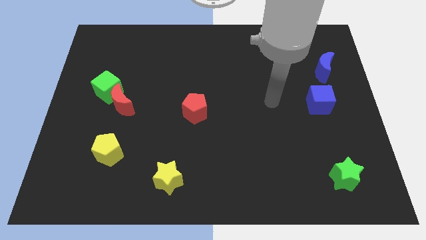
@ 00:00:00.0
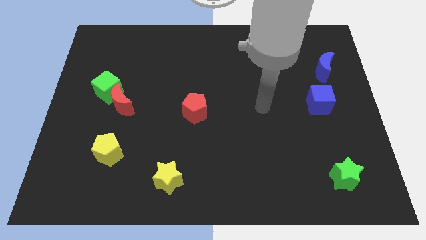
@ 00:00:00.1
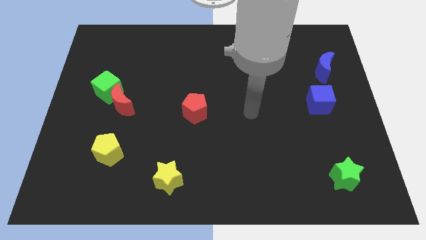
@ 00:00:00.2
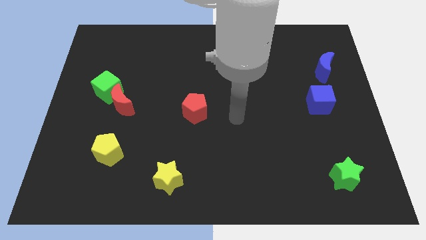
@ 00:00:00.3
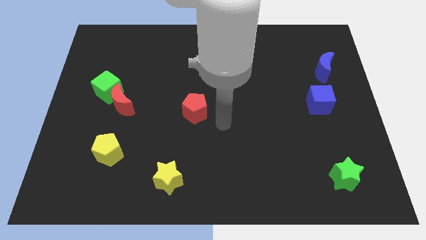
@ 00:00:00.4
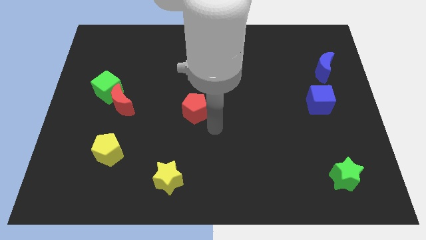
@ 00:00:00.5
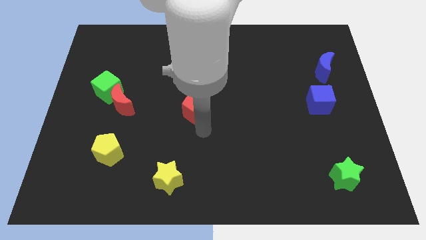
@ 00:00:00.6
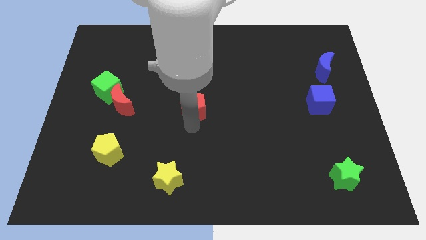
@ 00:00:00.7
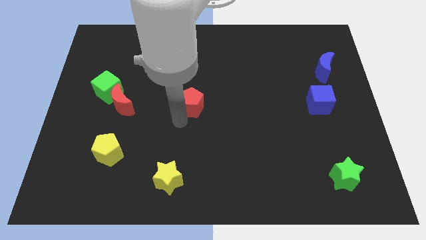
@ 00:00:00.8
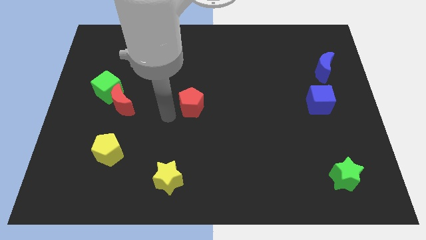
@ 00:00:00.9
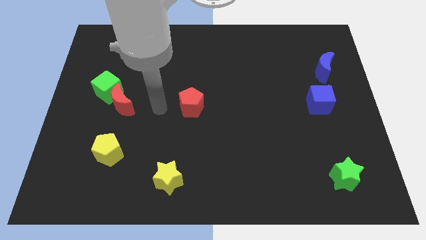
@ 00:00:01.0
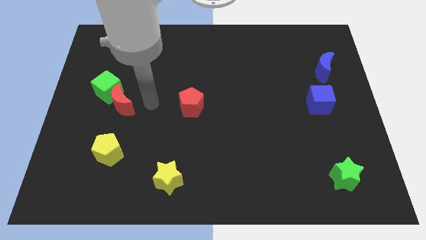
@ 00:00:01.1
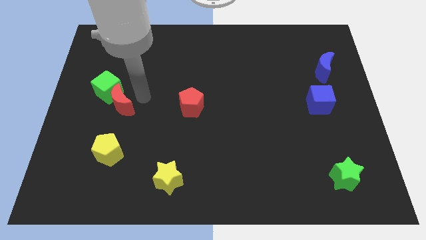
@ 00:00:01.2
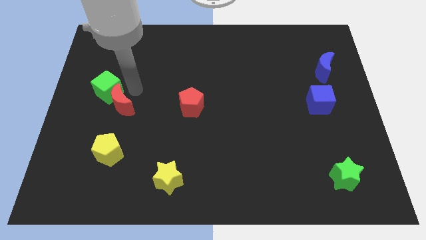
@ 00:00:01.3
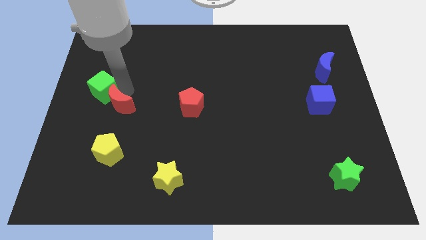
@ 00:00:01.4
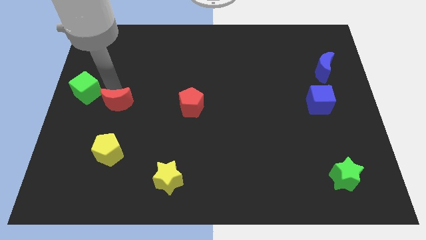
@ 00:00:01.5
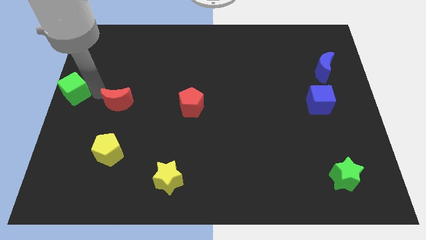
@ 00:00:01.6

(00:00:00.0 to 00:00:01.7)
pull the red moon apart from the green cube

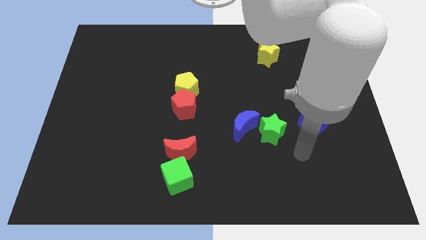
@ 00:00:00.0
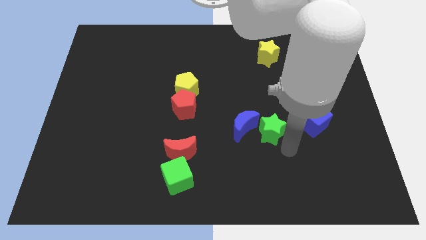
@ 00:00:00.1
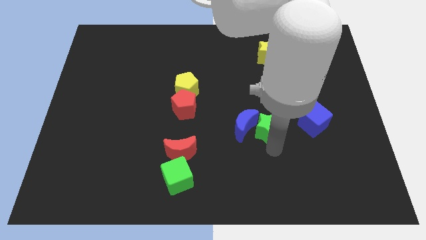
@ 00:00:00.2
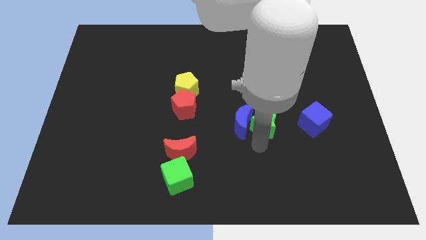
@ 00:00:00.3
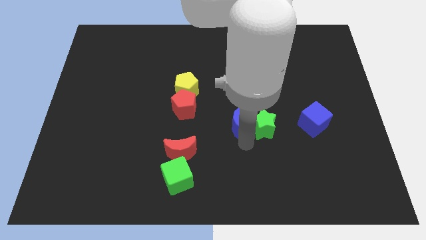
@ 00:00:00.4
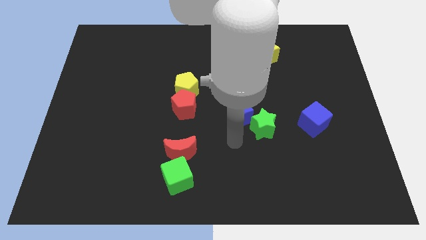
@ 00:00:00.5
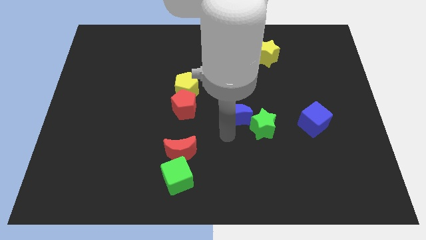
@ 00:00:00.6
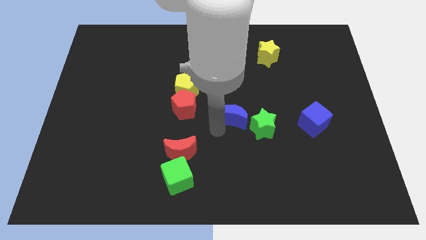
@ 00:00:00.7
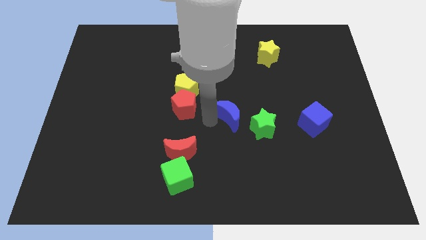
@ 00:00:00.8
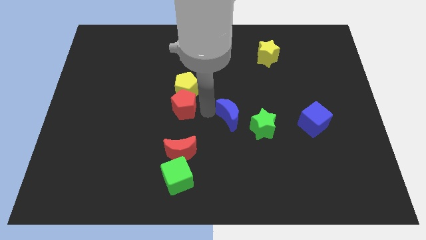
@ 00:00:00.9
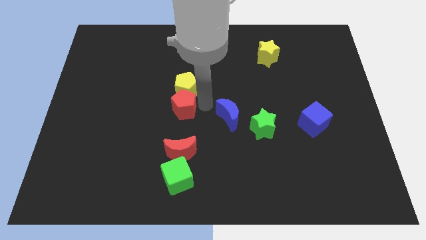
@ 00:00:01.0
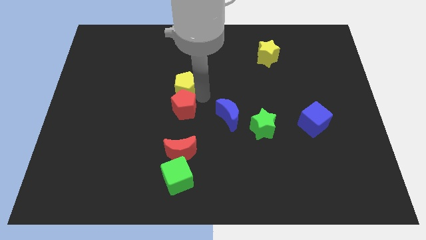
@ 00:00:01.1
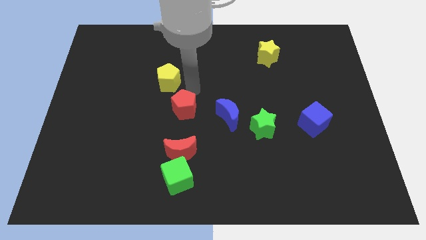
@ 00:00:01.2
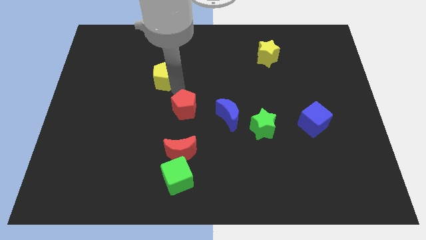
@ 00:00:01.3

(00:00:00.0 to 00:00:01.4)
separate the red pentagon from the yellow pentagon

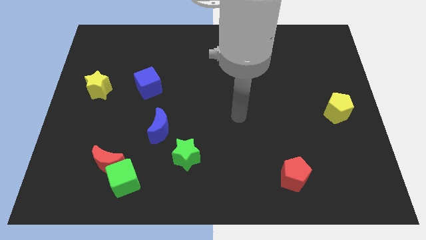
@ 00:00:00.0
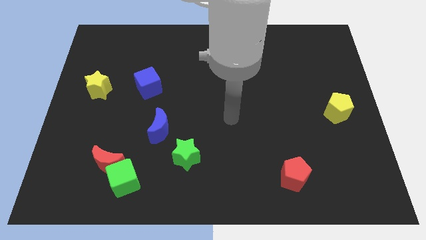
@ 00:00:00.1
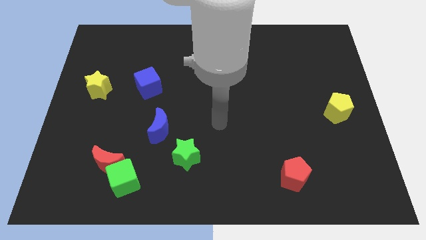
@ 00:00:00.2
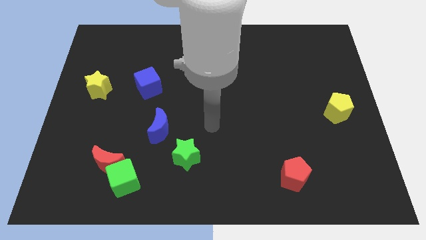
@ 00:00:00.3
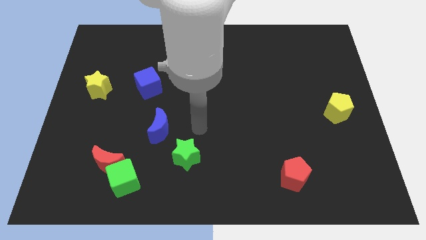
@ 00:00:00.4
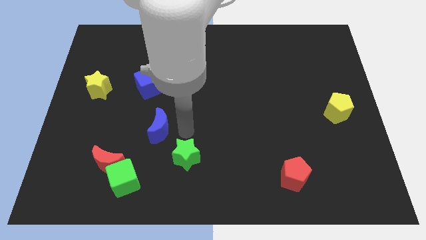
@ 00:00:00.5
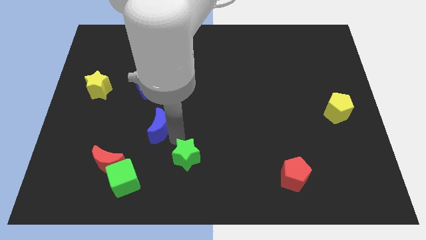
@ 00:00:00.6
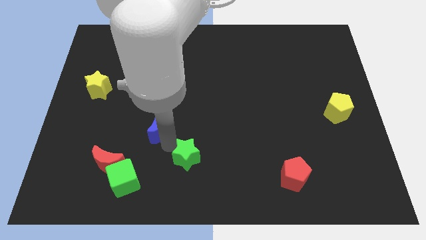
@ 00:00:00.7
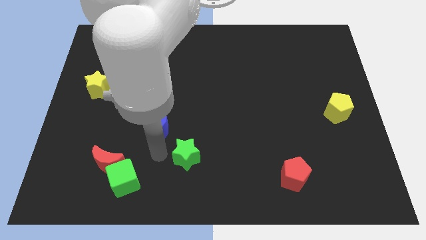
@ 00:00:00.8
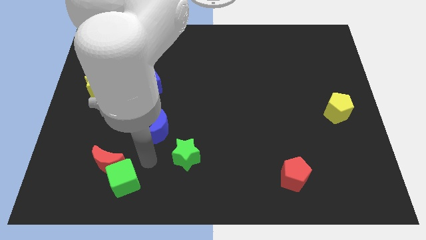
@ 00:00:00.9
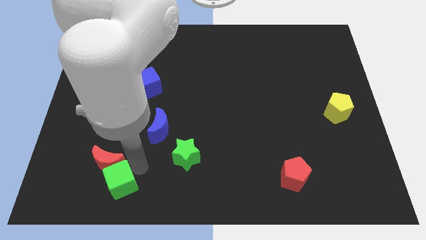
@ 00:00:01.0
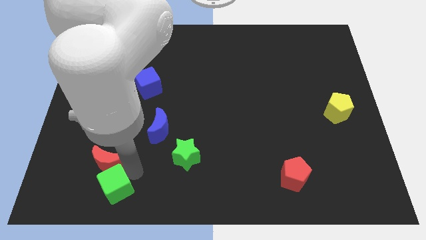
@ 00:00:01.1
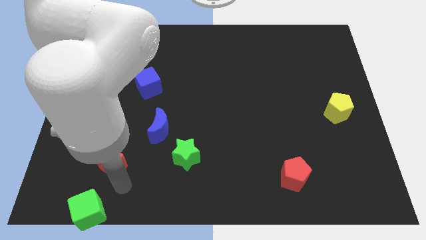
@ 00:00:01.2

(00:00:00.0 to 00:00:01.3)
separate the red moon from the green cube

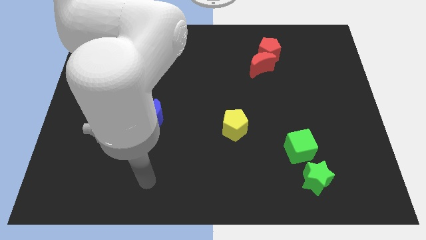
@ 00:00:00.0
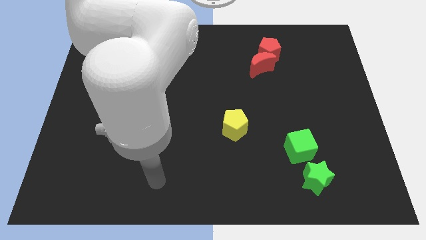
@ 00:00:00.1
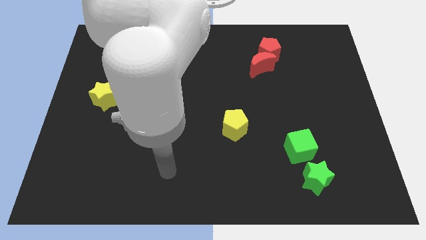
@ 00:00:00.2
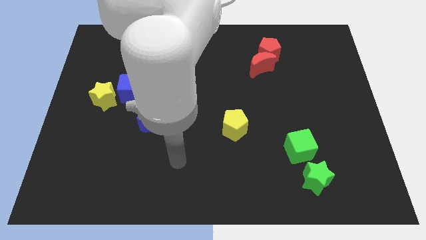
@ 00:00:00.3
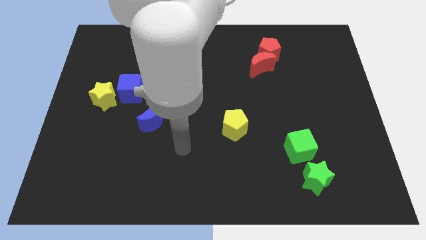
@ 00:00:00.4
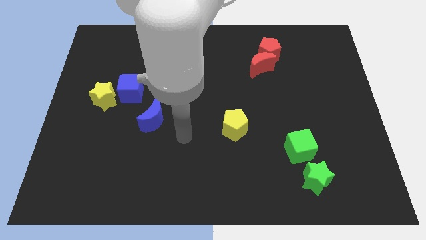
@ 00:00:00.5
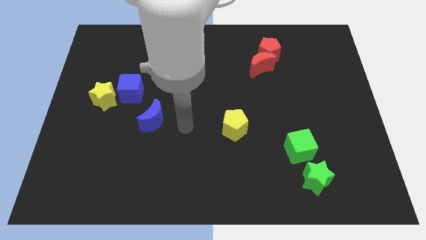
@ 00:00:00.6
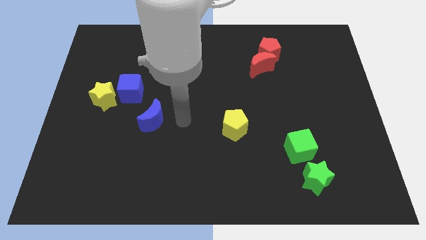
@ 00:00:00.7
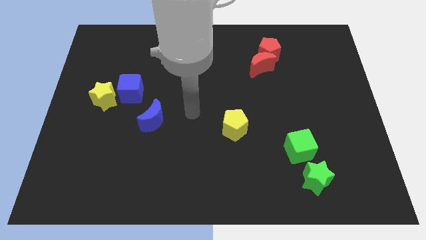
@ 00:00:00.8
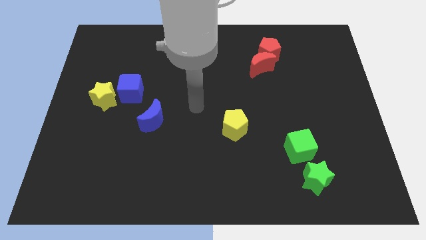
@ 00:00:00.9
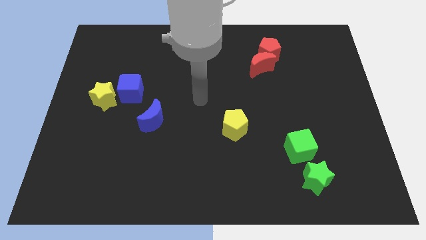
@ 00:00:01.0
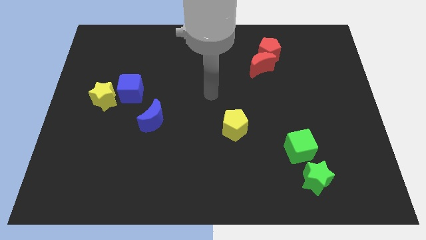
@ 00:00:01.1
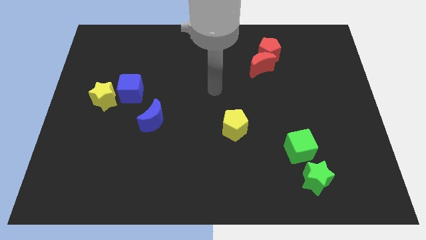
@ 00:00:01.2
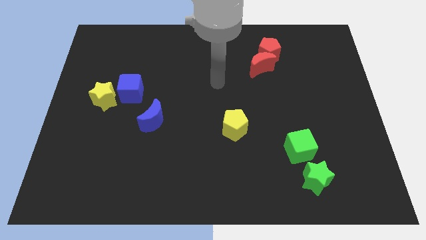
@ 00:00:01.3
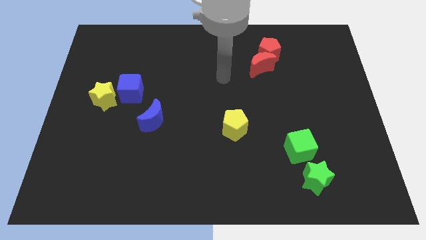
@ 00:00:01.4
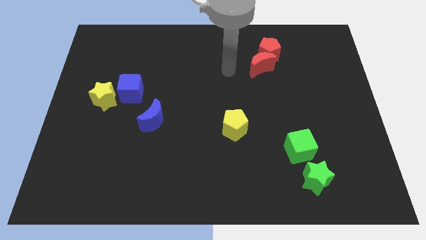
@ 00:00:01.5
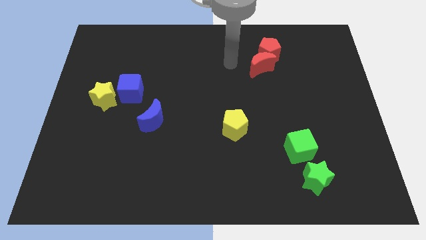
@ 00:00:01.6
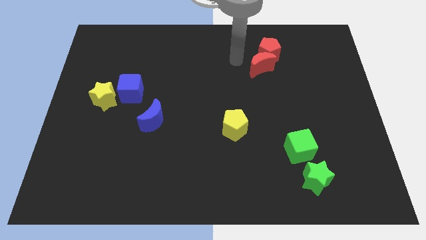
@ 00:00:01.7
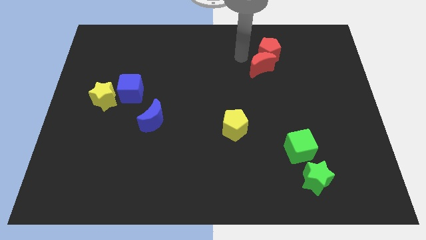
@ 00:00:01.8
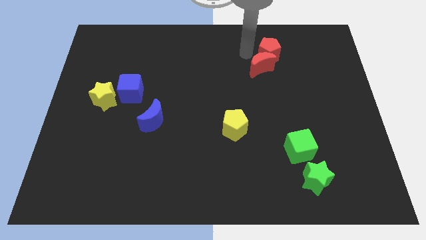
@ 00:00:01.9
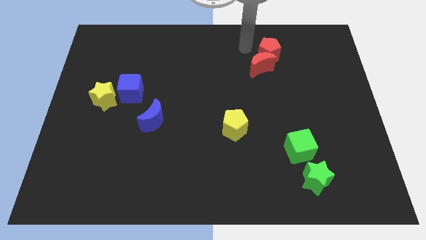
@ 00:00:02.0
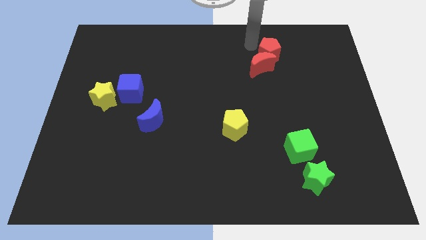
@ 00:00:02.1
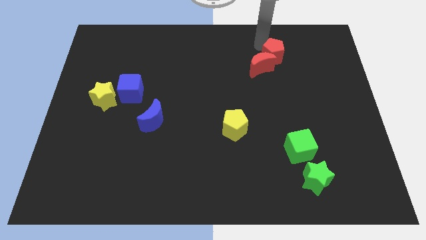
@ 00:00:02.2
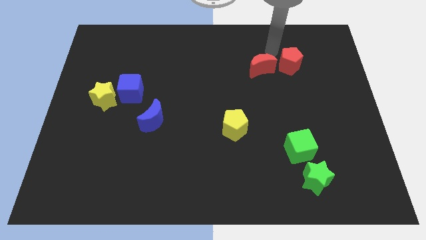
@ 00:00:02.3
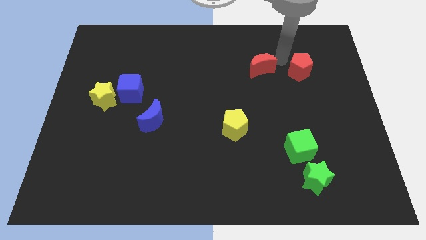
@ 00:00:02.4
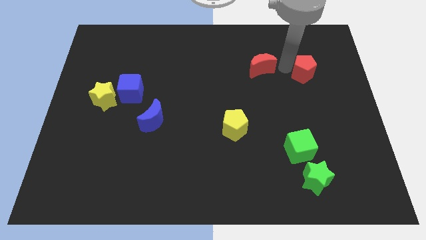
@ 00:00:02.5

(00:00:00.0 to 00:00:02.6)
move the red moon away from the red pentagon

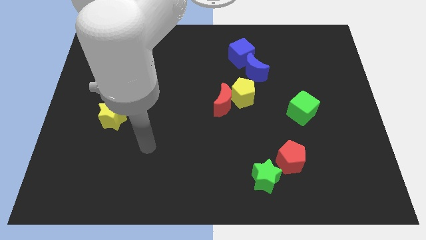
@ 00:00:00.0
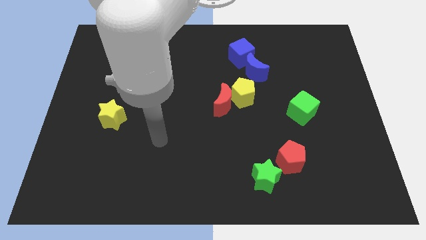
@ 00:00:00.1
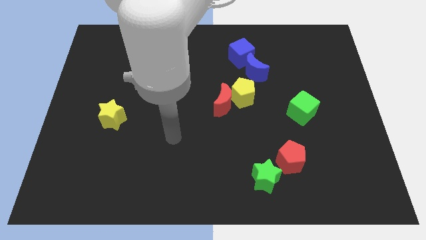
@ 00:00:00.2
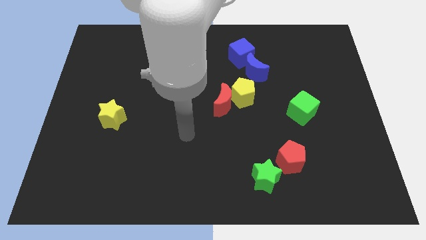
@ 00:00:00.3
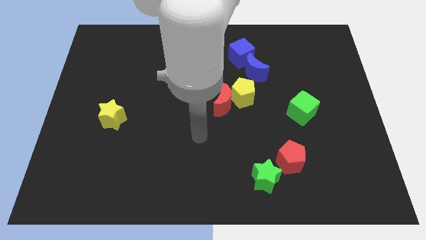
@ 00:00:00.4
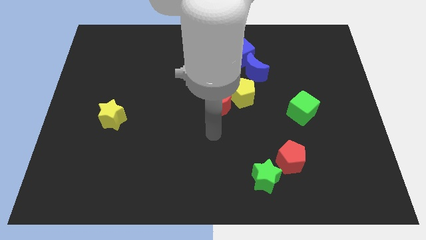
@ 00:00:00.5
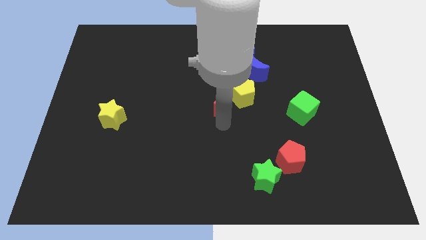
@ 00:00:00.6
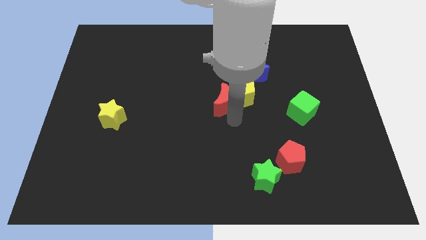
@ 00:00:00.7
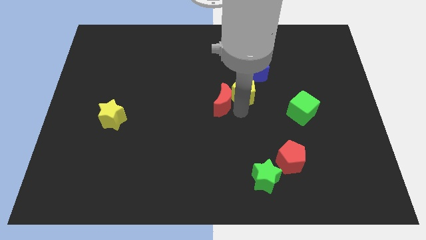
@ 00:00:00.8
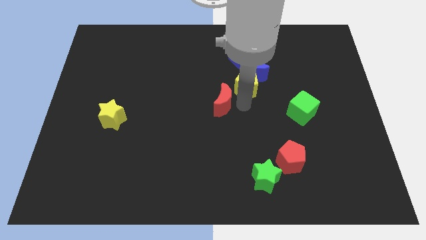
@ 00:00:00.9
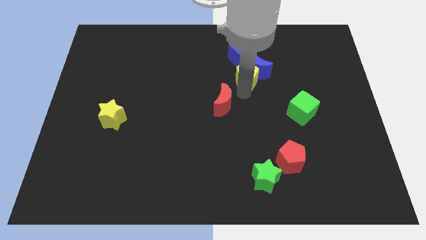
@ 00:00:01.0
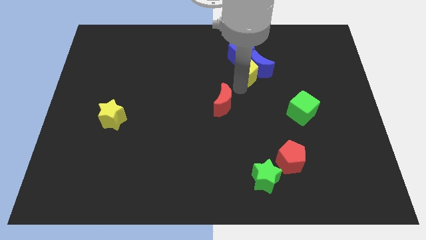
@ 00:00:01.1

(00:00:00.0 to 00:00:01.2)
separate the red moon from the yellow pentagon

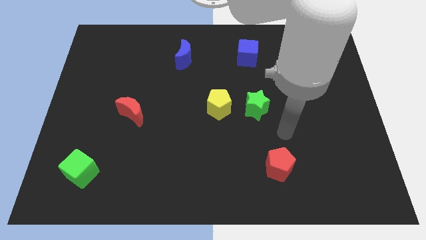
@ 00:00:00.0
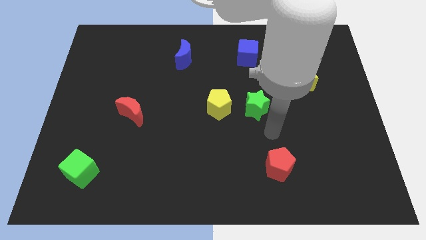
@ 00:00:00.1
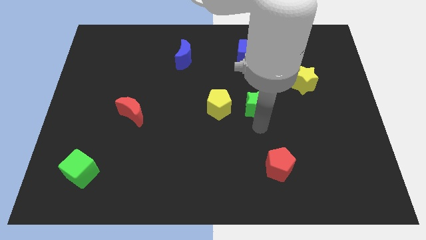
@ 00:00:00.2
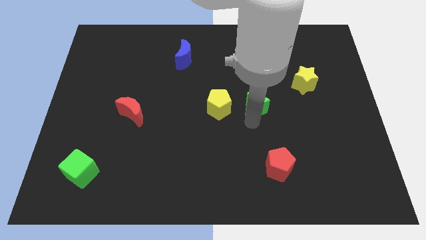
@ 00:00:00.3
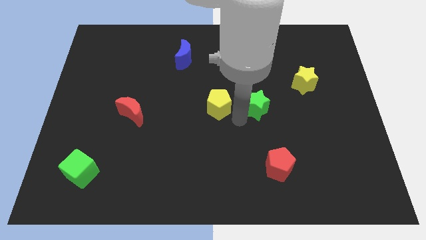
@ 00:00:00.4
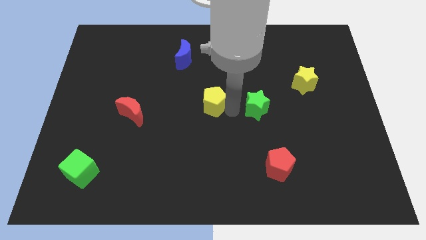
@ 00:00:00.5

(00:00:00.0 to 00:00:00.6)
move the green star away from the yellow pentagon

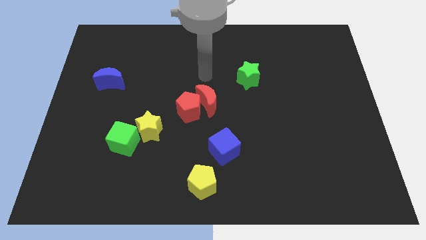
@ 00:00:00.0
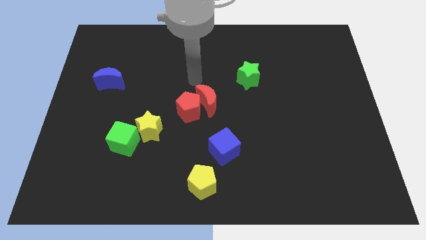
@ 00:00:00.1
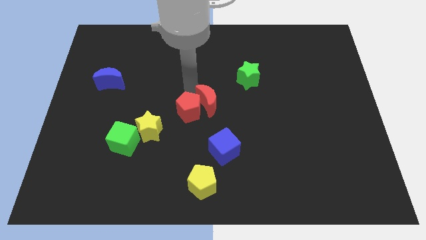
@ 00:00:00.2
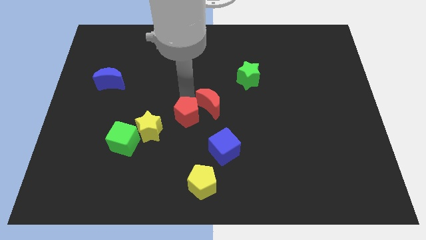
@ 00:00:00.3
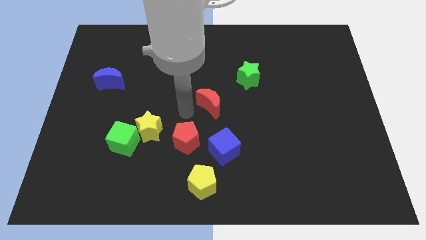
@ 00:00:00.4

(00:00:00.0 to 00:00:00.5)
separate the red moon from the red pentagon
